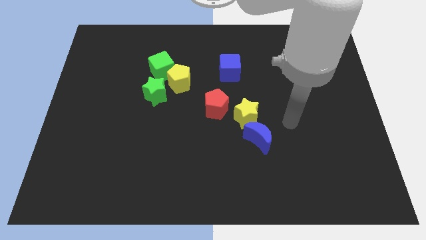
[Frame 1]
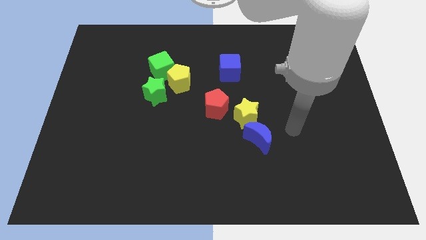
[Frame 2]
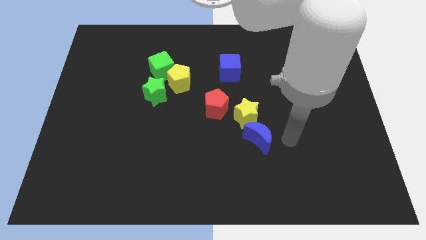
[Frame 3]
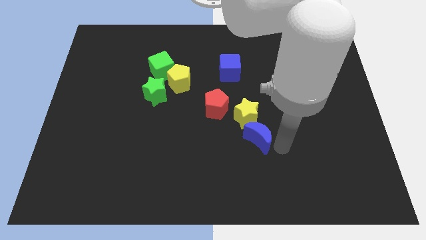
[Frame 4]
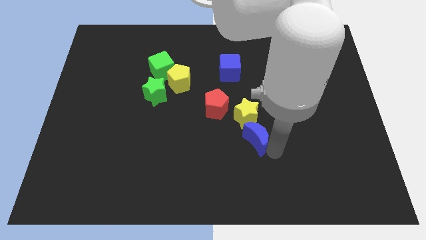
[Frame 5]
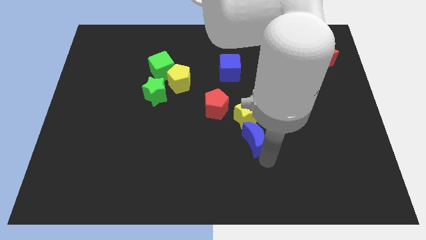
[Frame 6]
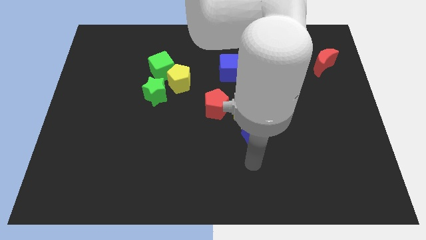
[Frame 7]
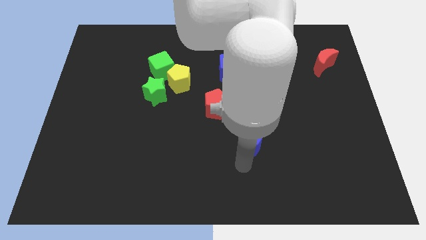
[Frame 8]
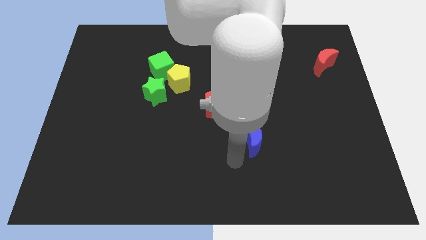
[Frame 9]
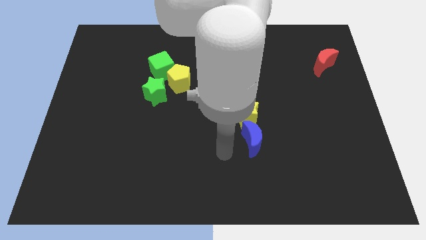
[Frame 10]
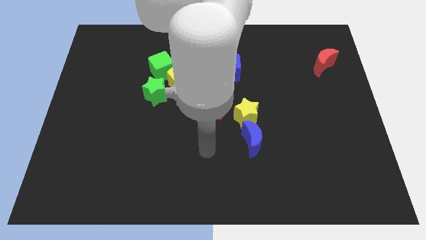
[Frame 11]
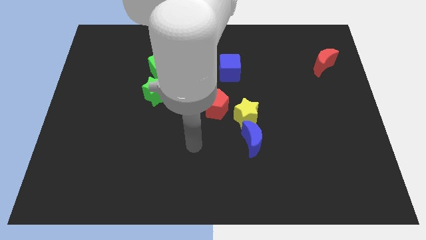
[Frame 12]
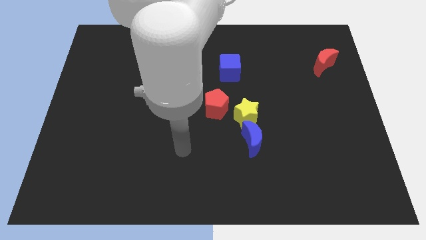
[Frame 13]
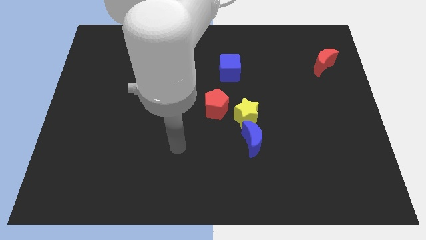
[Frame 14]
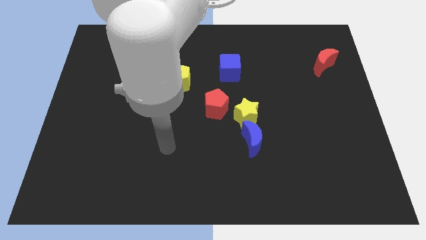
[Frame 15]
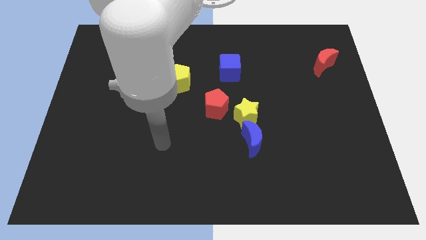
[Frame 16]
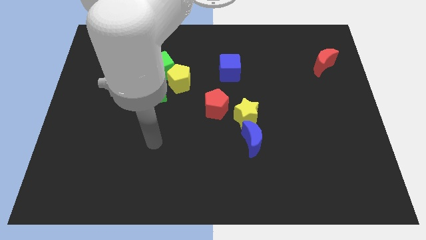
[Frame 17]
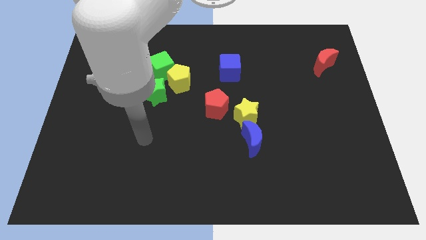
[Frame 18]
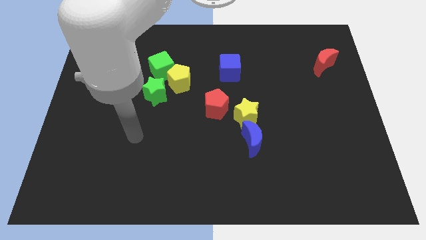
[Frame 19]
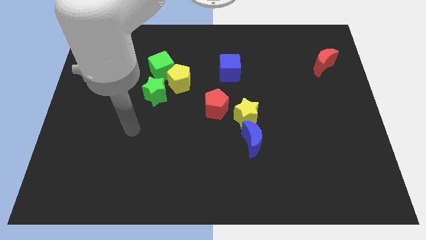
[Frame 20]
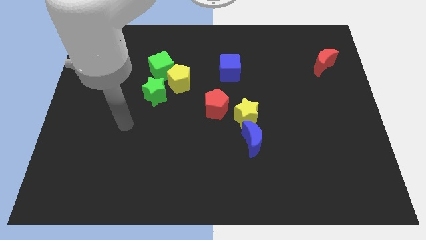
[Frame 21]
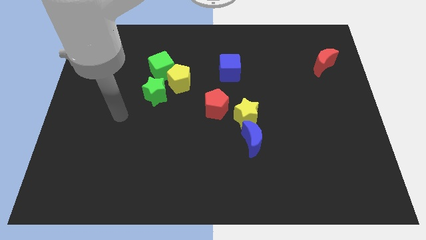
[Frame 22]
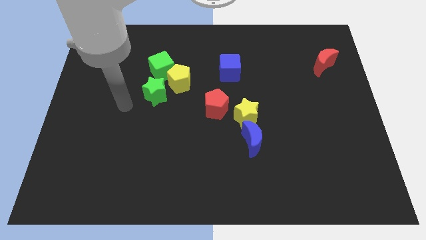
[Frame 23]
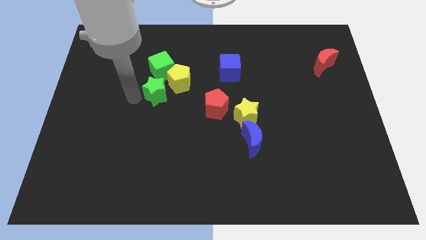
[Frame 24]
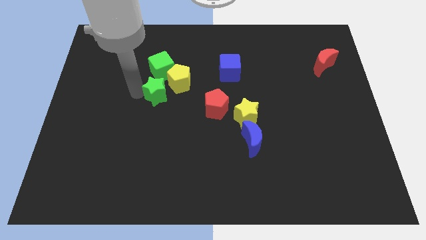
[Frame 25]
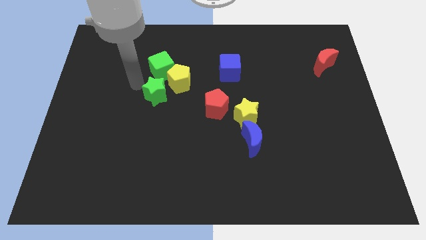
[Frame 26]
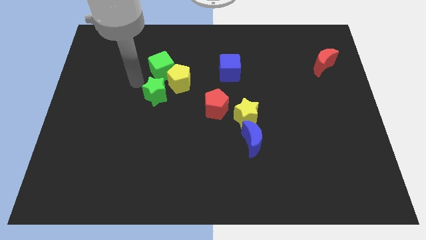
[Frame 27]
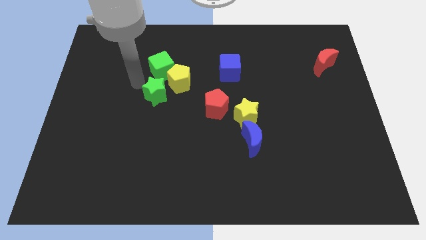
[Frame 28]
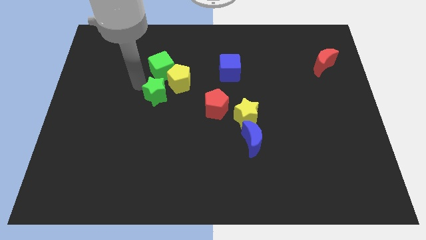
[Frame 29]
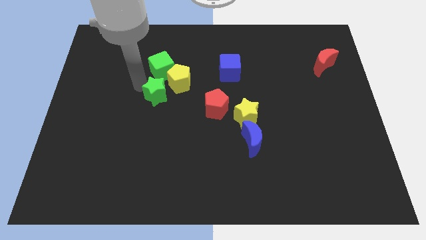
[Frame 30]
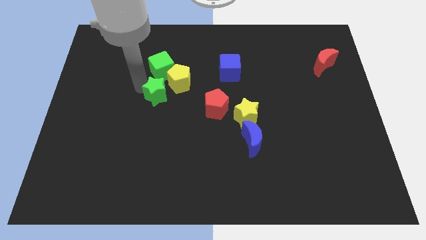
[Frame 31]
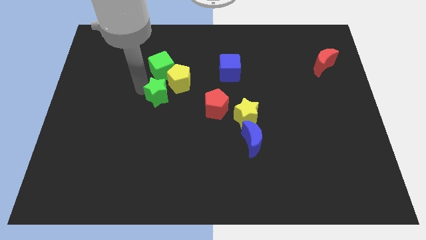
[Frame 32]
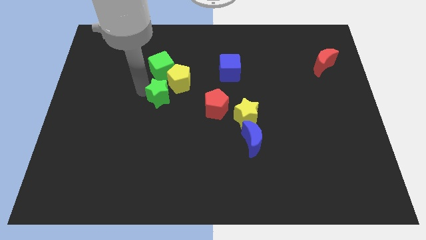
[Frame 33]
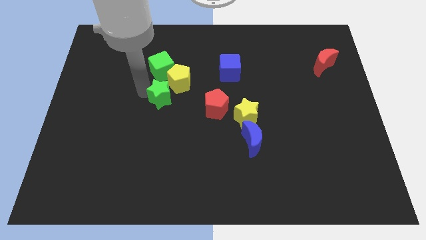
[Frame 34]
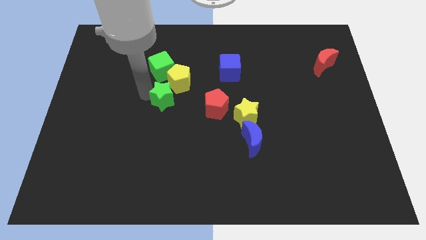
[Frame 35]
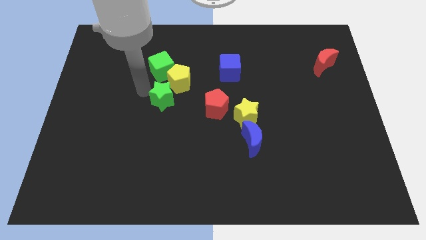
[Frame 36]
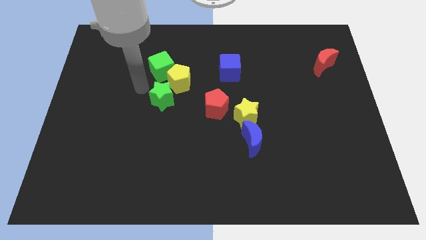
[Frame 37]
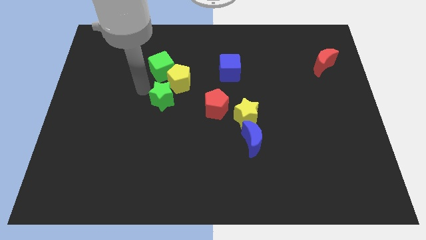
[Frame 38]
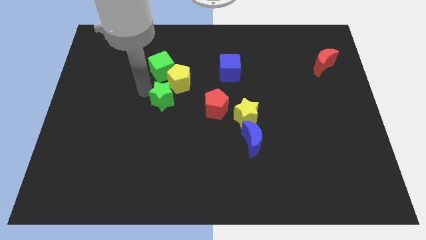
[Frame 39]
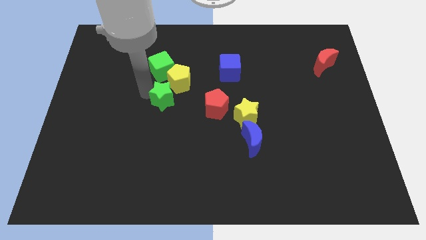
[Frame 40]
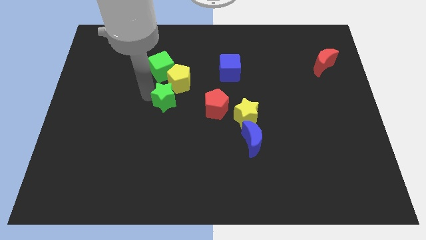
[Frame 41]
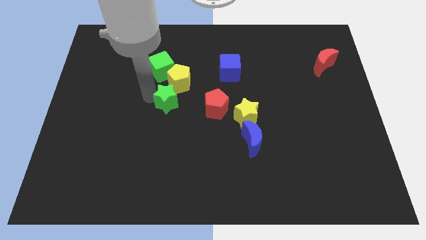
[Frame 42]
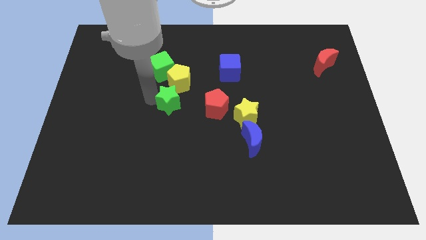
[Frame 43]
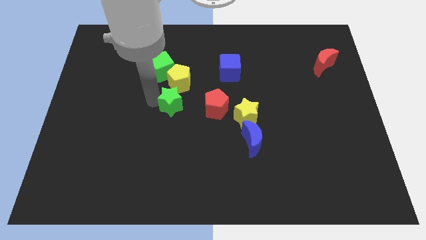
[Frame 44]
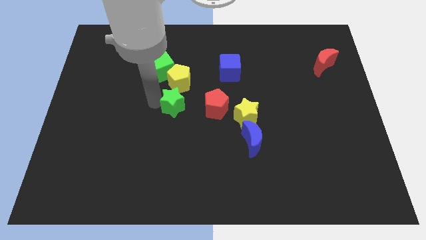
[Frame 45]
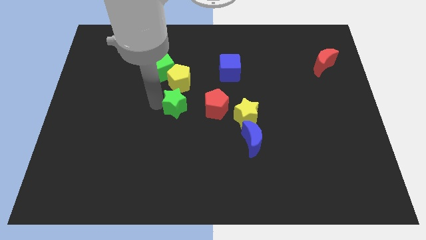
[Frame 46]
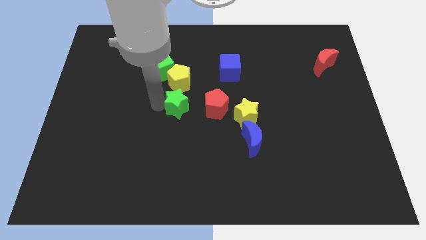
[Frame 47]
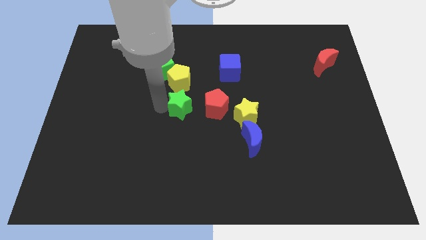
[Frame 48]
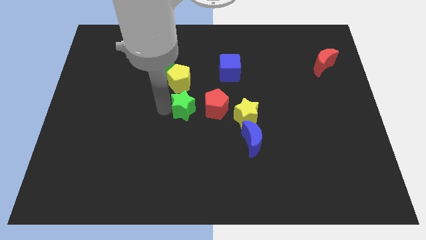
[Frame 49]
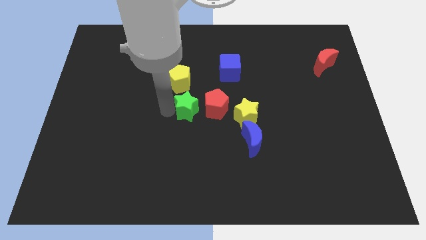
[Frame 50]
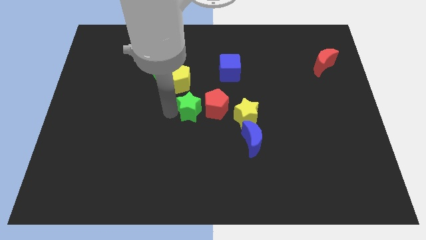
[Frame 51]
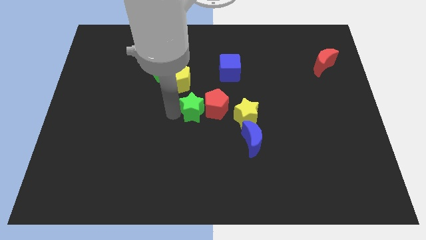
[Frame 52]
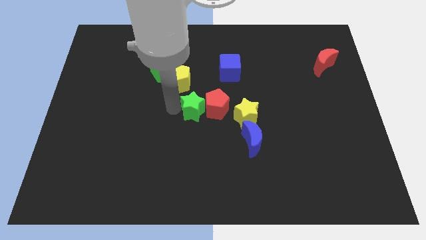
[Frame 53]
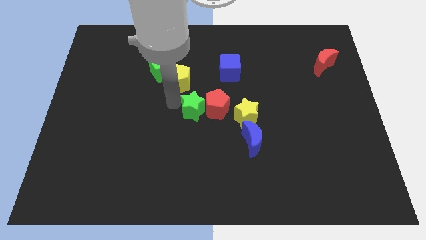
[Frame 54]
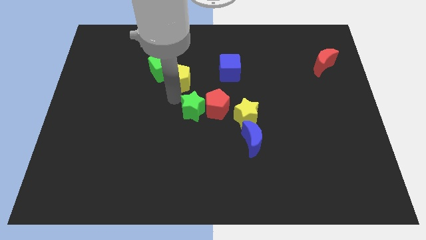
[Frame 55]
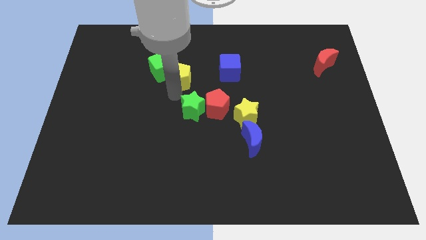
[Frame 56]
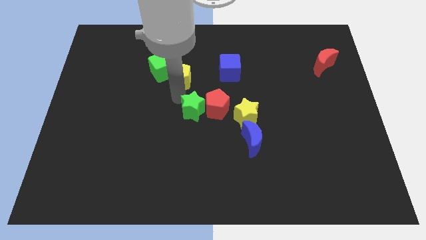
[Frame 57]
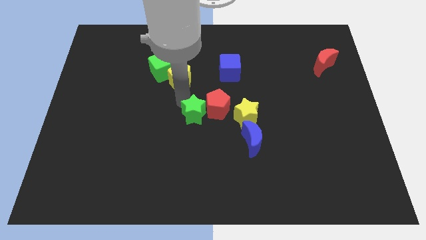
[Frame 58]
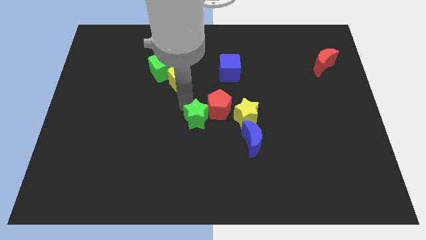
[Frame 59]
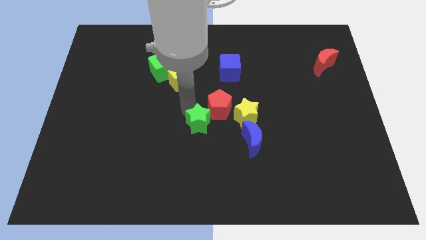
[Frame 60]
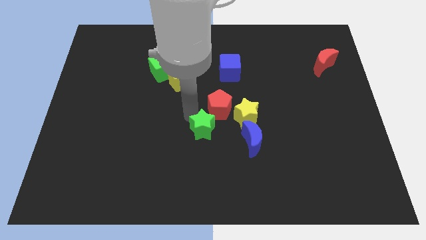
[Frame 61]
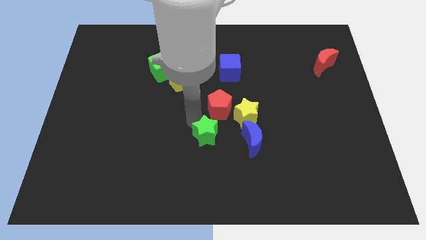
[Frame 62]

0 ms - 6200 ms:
slide the green star diagonally down and to the left of the yellow star

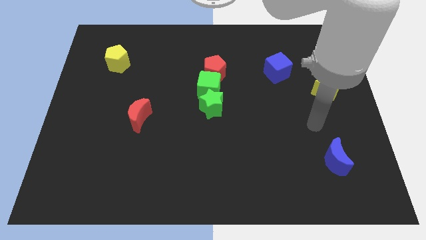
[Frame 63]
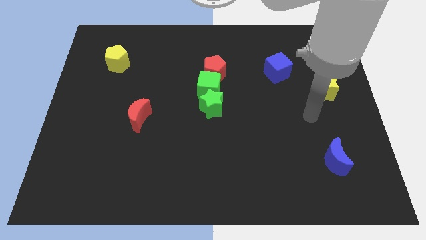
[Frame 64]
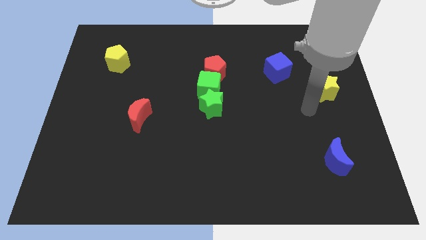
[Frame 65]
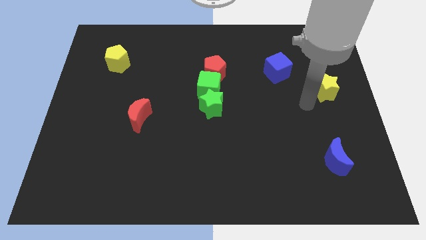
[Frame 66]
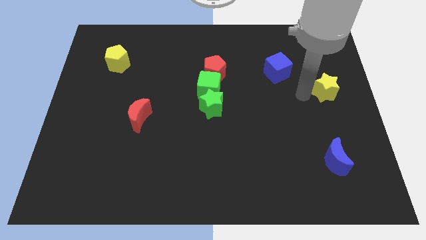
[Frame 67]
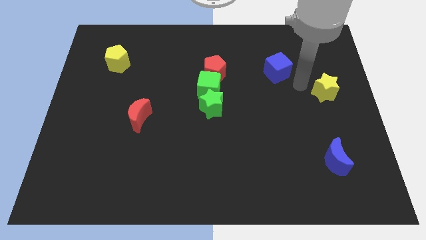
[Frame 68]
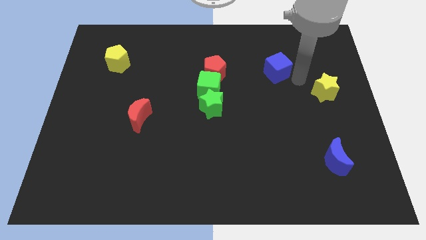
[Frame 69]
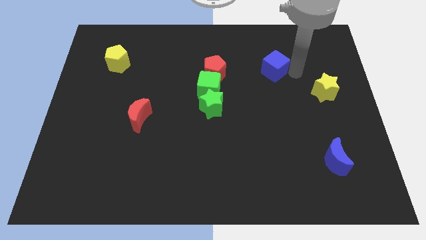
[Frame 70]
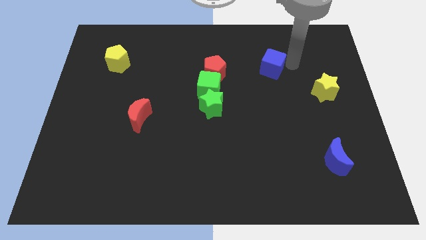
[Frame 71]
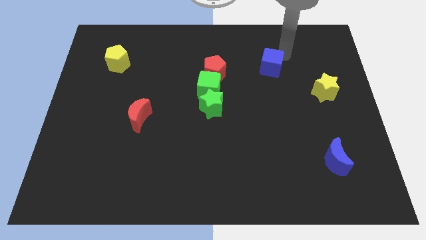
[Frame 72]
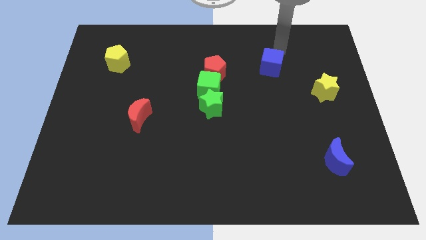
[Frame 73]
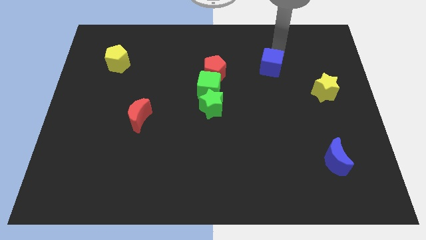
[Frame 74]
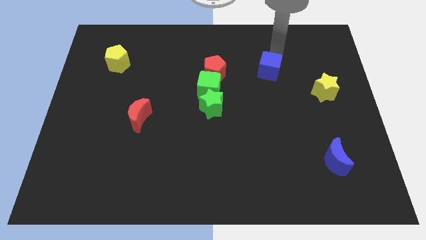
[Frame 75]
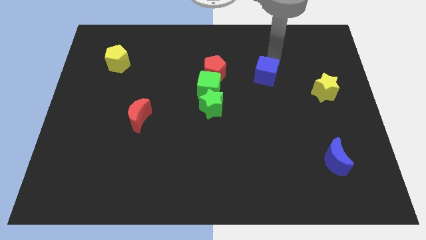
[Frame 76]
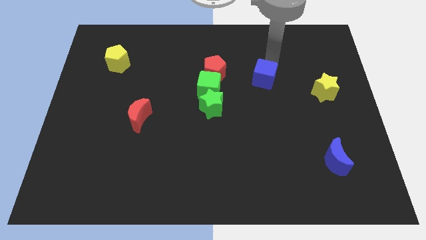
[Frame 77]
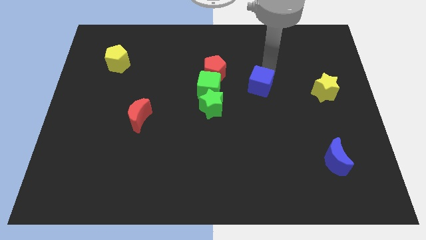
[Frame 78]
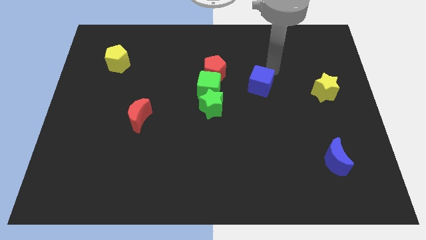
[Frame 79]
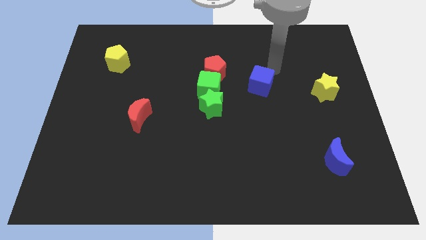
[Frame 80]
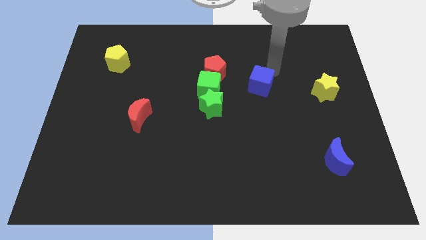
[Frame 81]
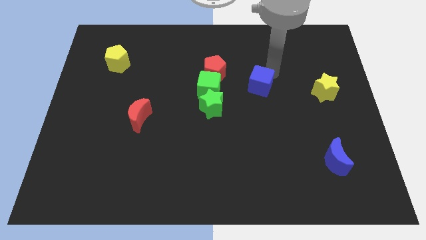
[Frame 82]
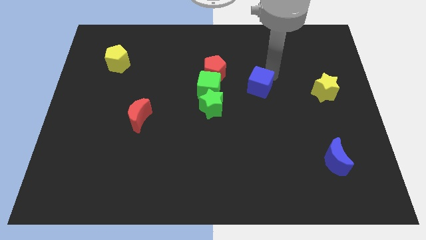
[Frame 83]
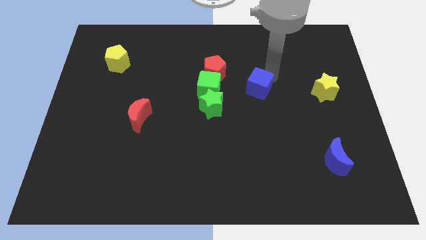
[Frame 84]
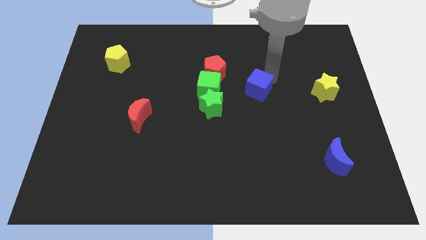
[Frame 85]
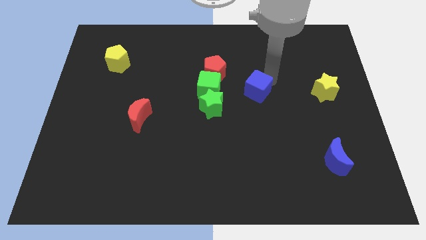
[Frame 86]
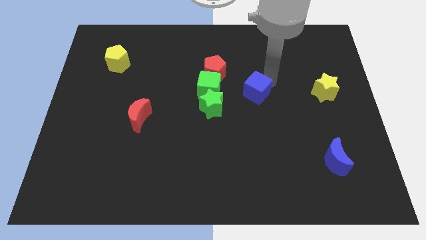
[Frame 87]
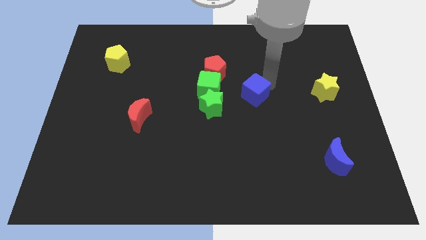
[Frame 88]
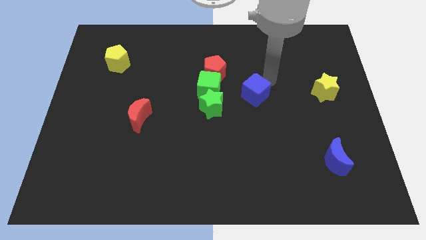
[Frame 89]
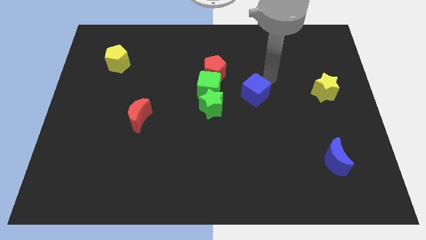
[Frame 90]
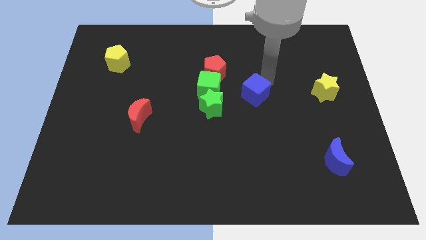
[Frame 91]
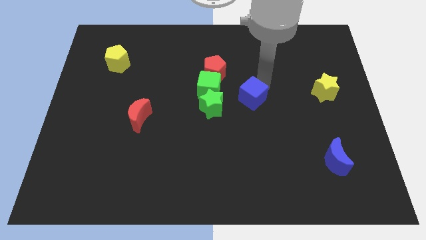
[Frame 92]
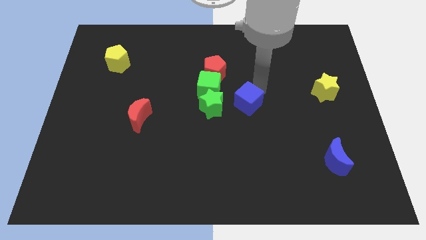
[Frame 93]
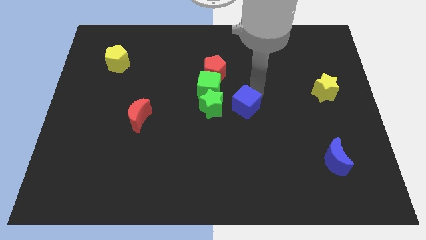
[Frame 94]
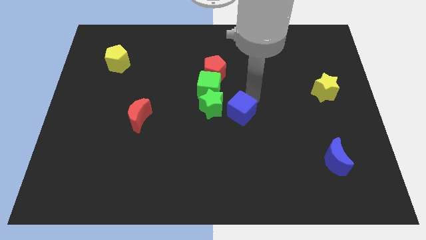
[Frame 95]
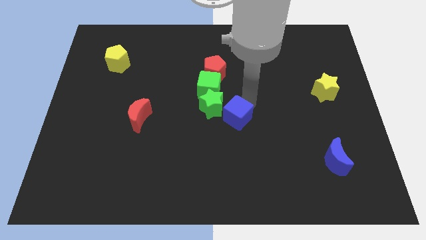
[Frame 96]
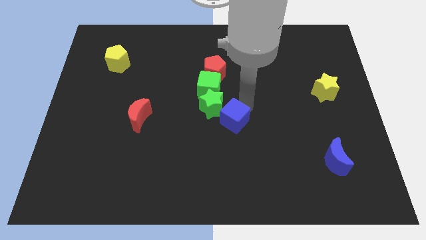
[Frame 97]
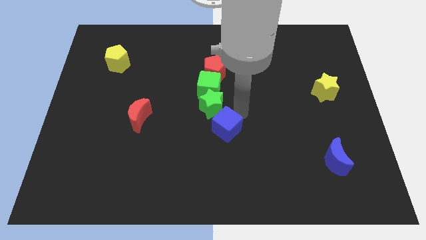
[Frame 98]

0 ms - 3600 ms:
move the blue cube below the green star
